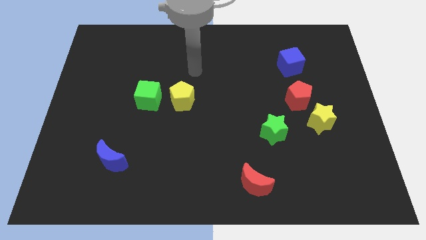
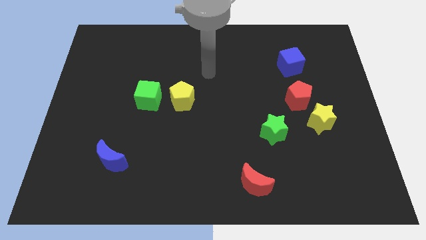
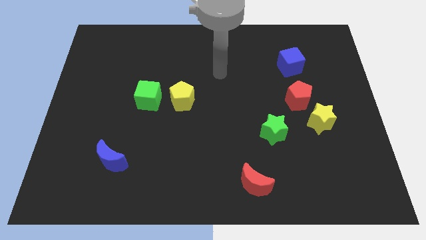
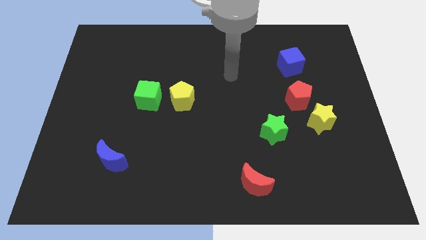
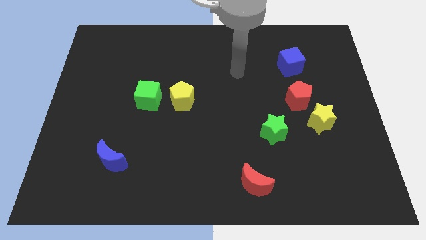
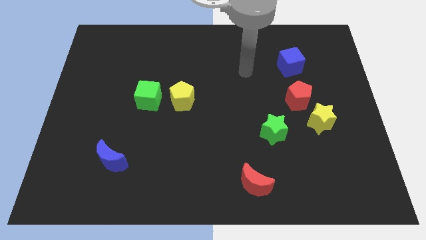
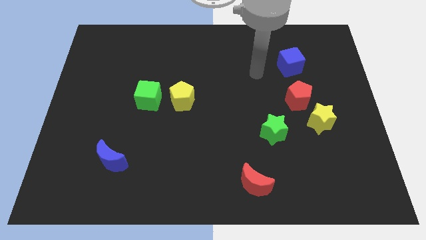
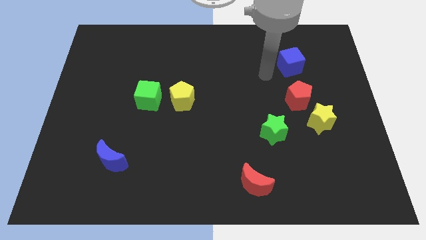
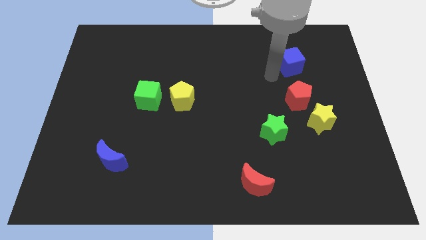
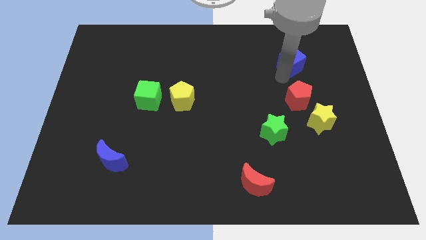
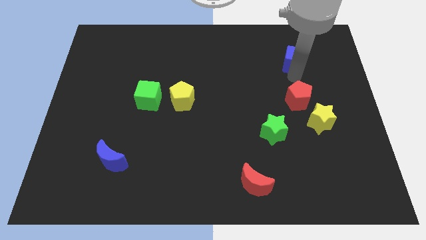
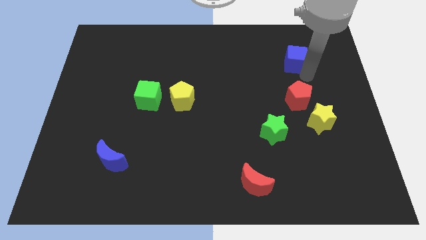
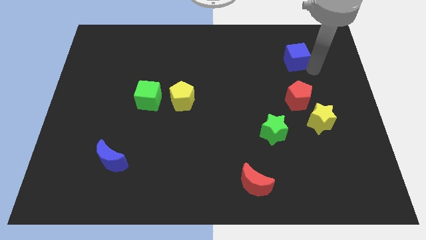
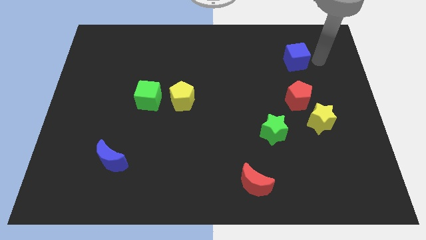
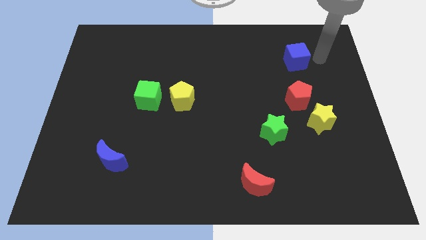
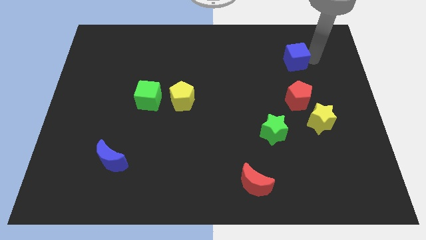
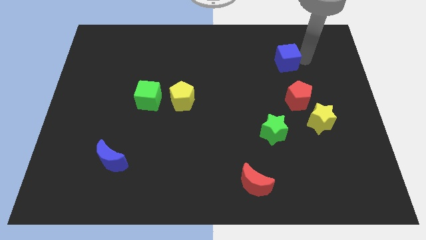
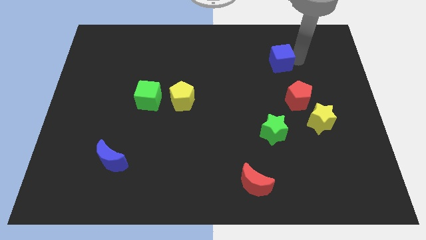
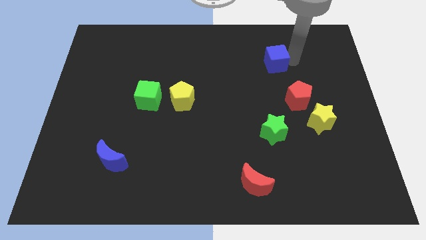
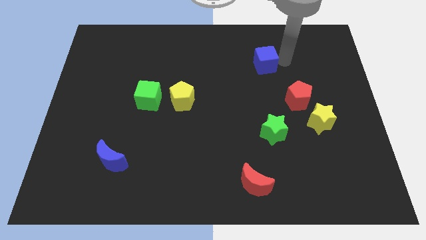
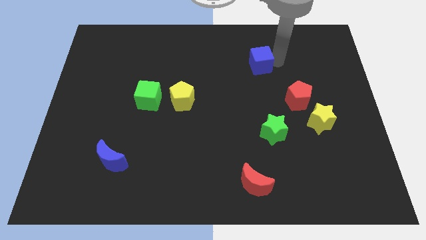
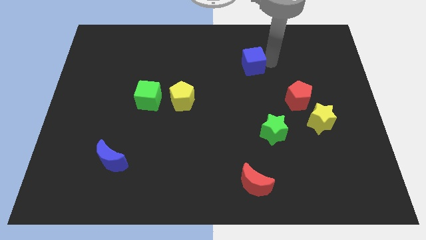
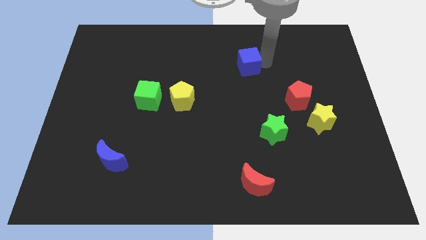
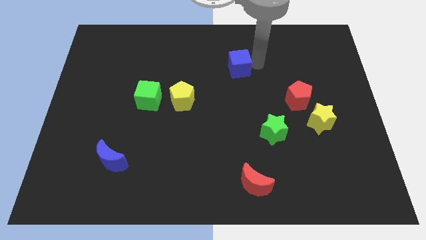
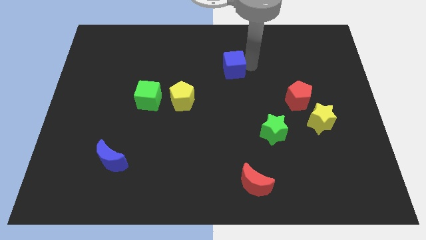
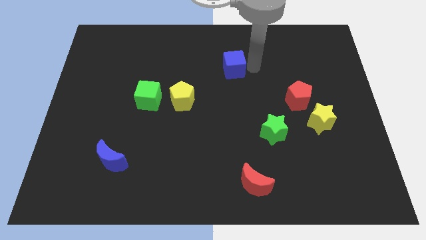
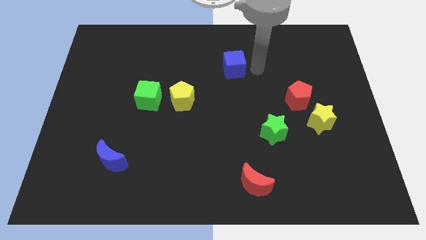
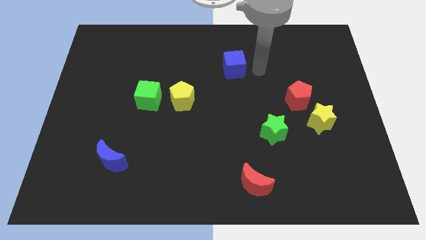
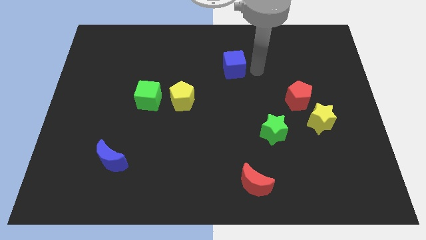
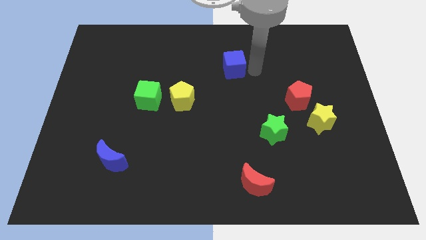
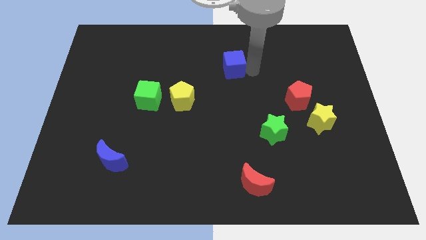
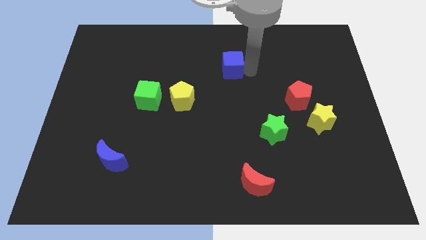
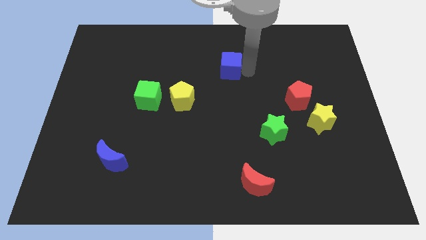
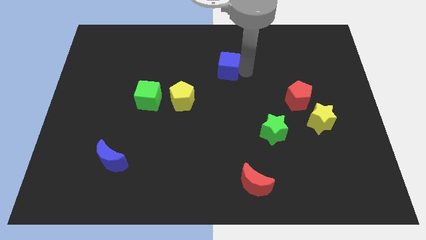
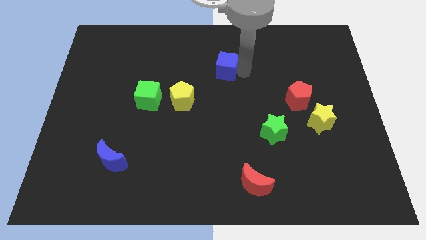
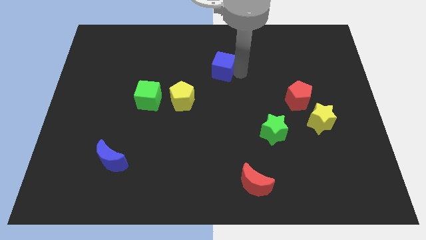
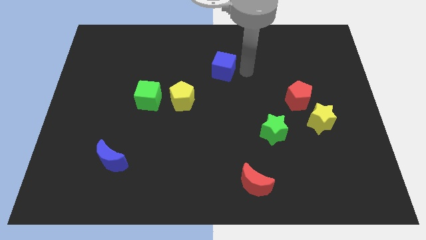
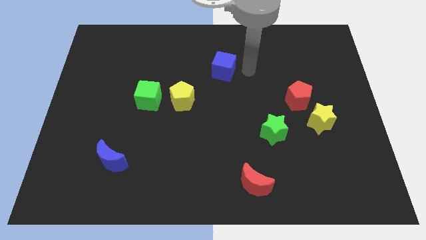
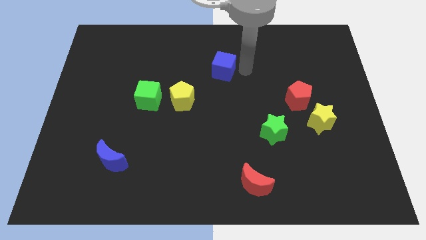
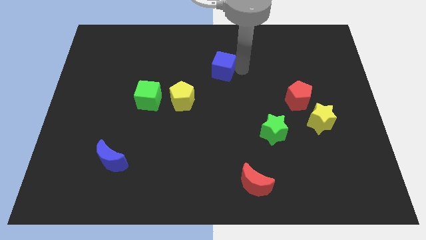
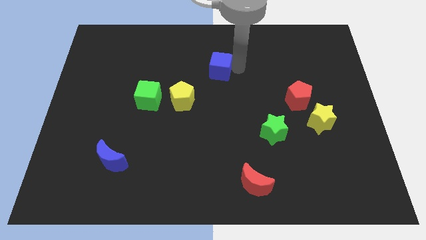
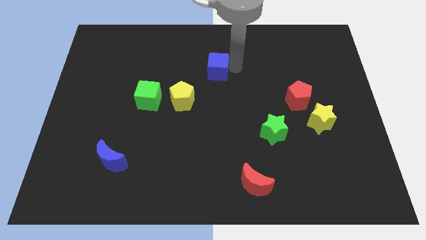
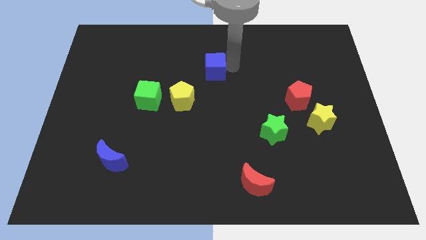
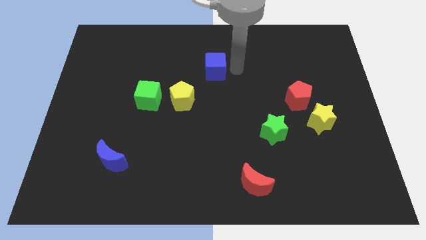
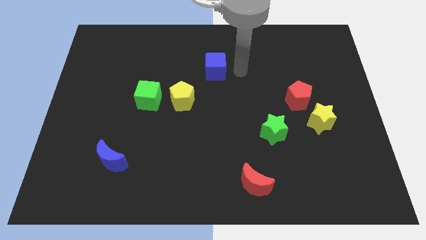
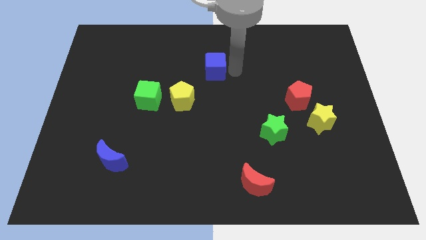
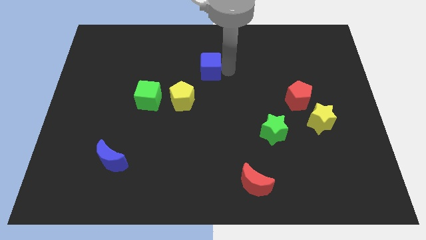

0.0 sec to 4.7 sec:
move the blue cube to the left

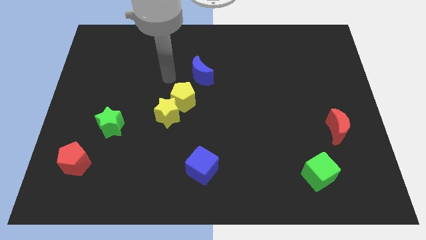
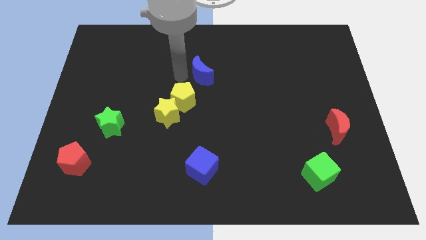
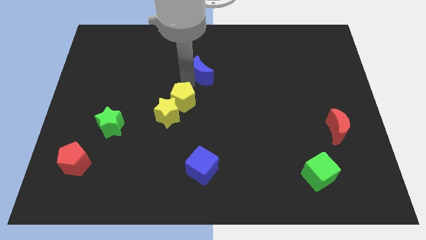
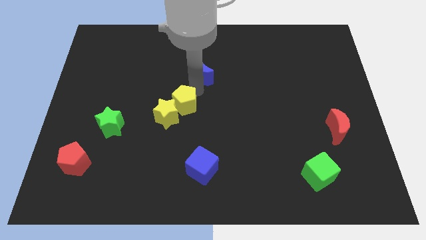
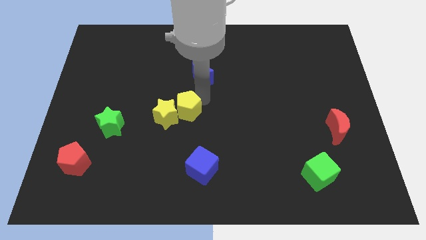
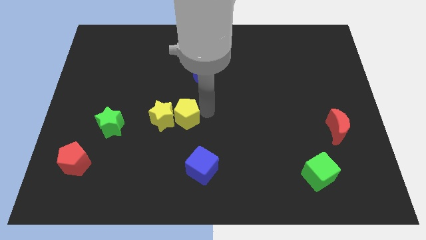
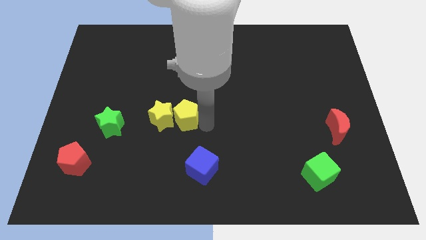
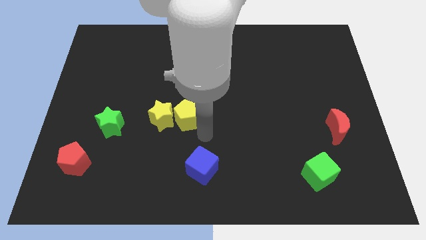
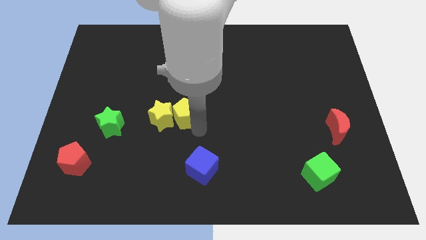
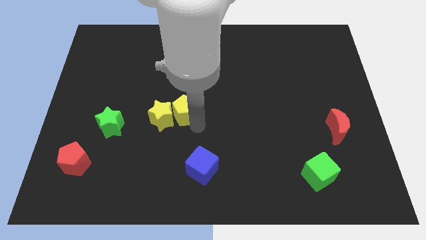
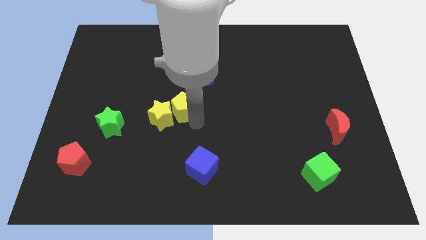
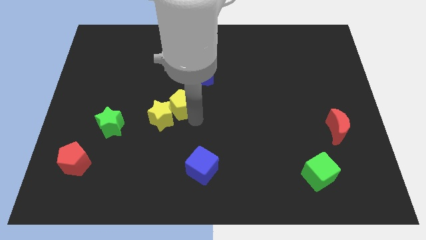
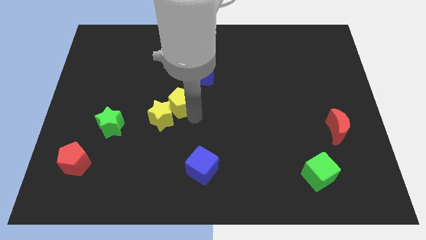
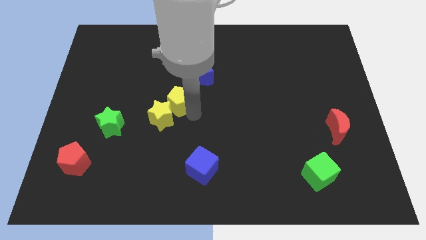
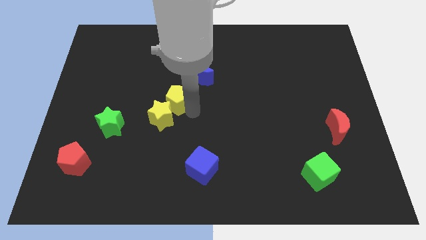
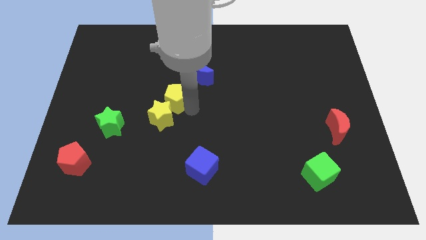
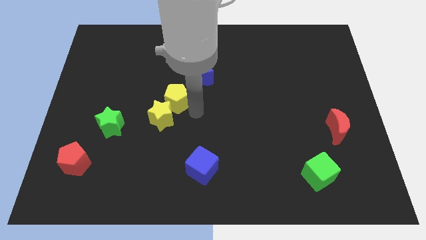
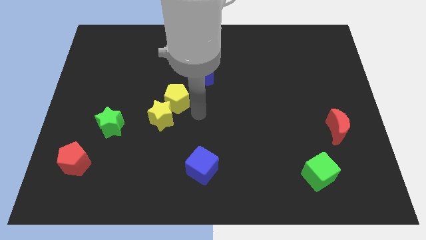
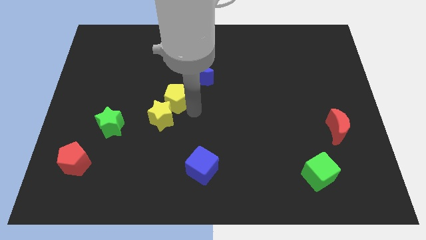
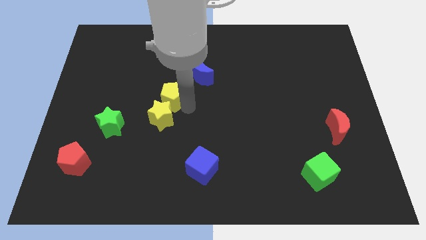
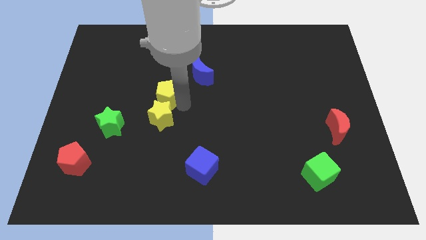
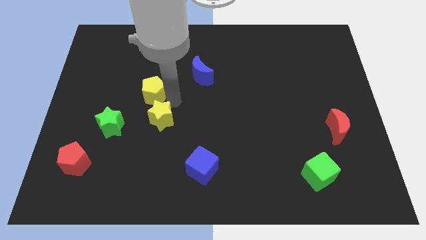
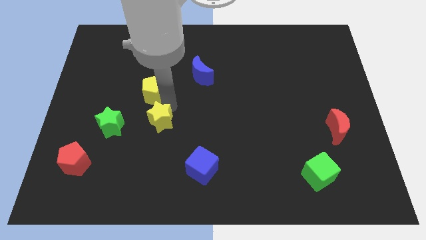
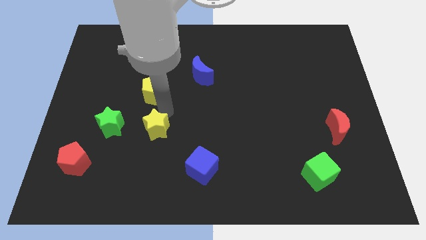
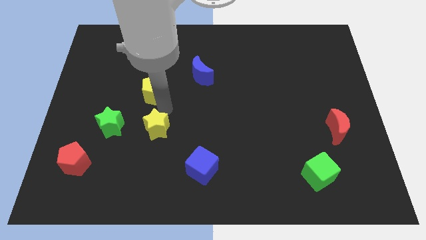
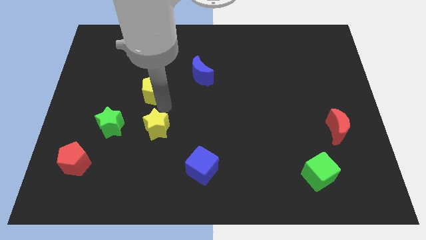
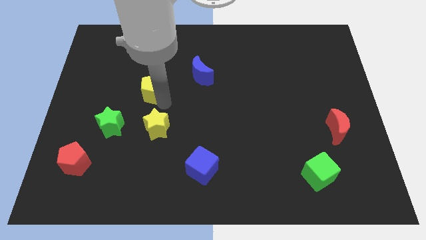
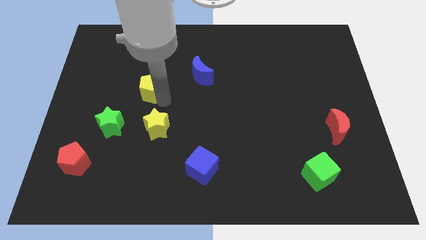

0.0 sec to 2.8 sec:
slightly push the yellow pentagon upwards and then left

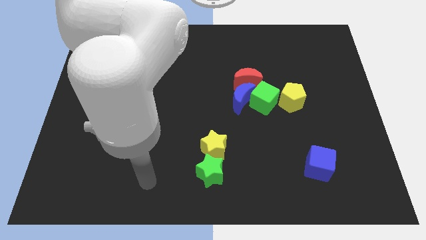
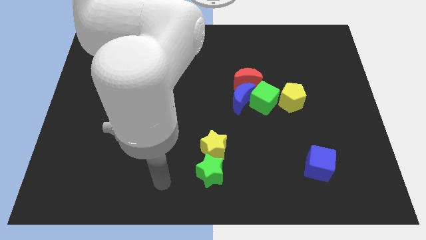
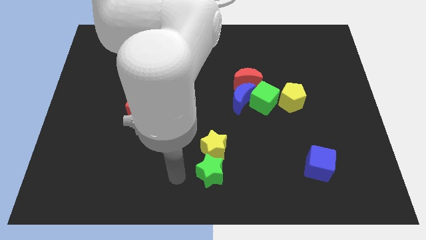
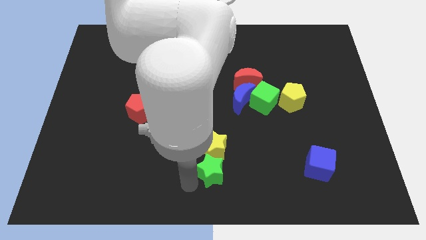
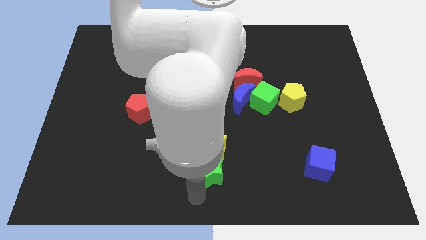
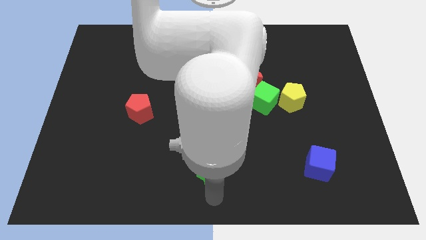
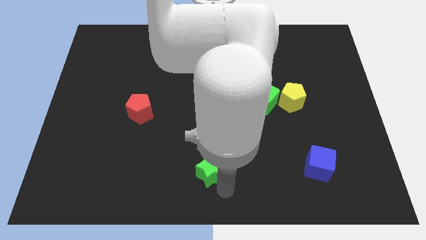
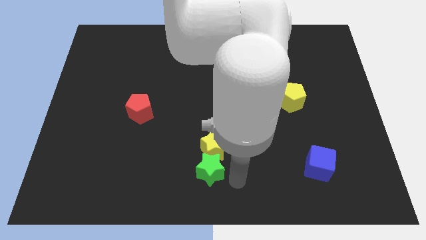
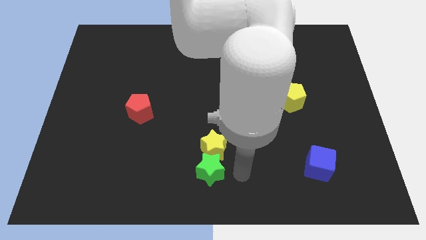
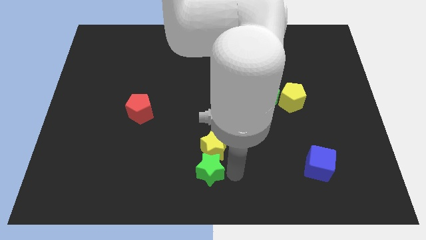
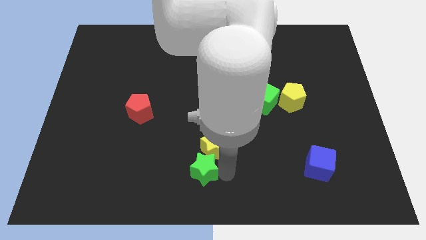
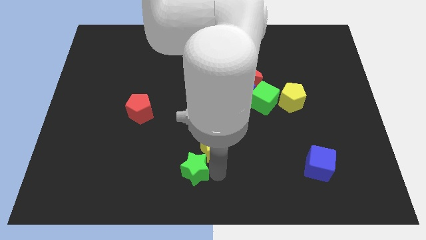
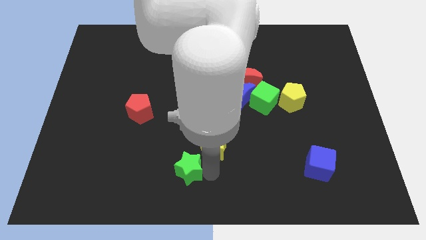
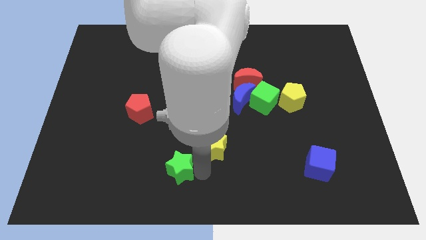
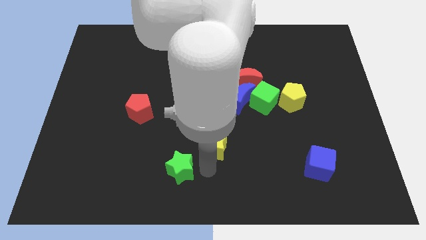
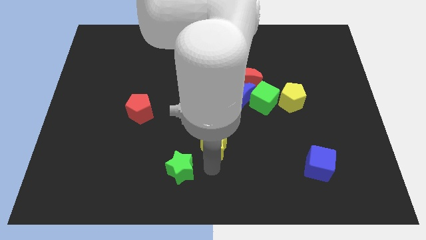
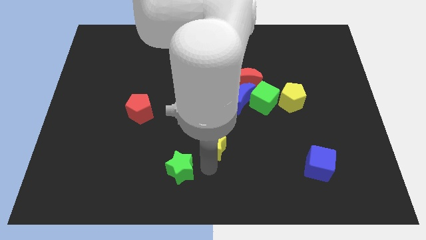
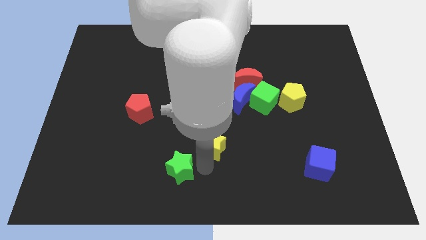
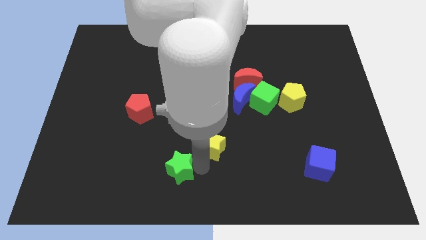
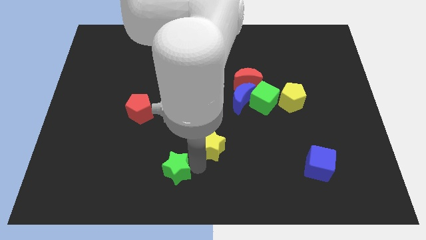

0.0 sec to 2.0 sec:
push the green star to the left a little
